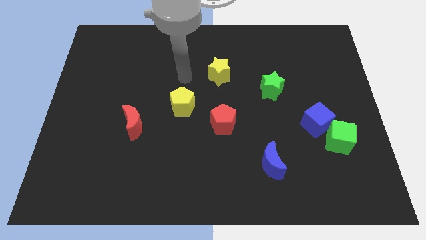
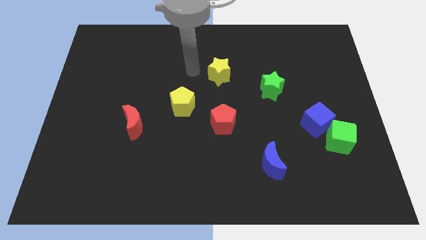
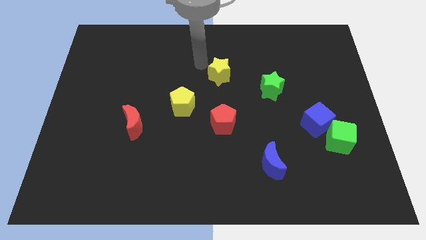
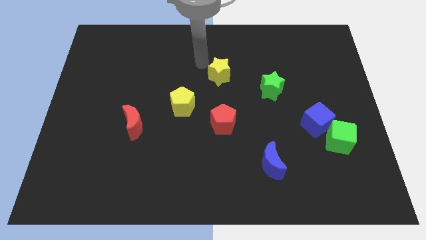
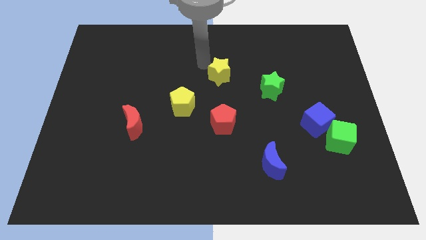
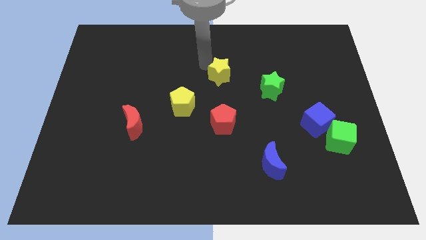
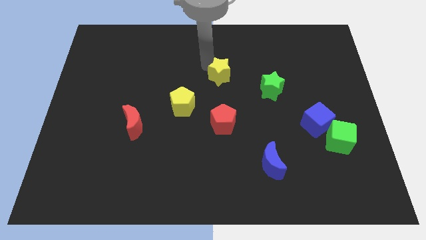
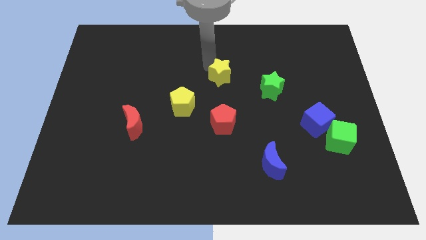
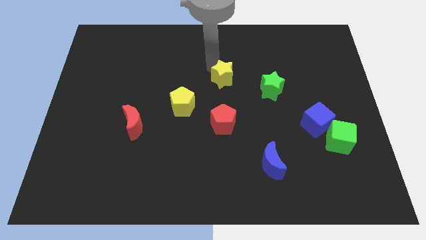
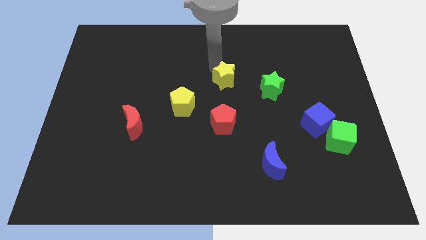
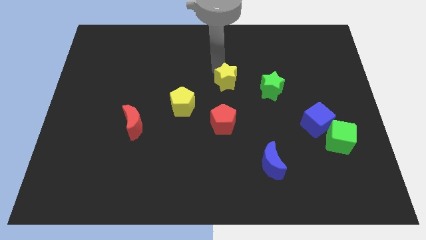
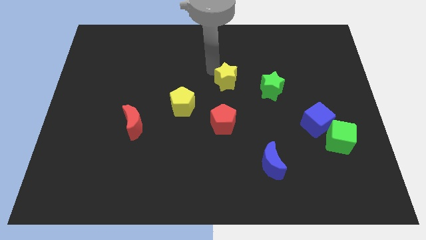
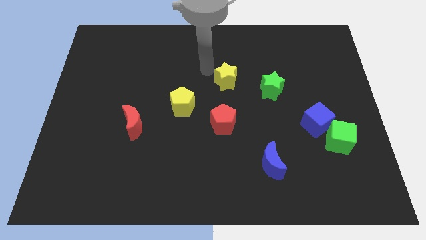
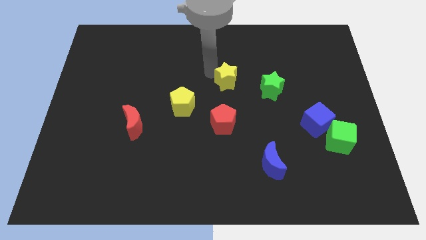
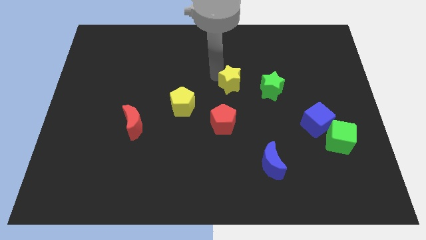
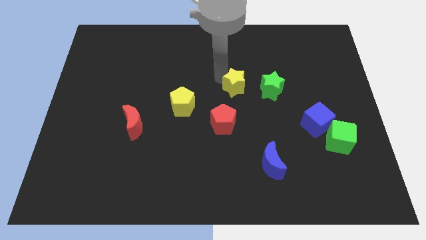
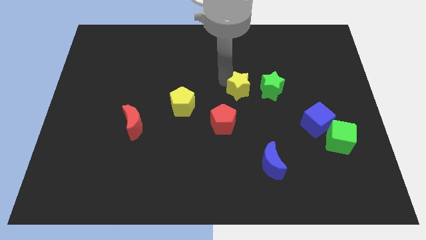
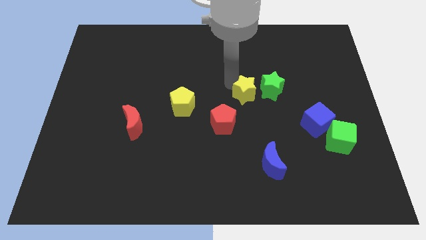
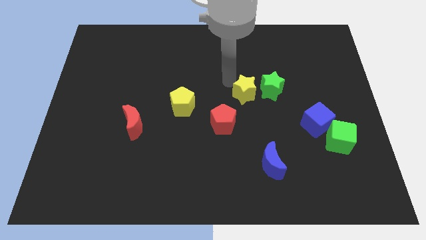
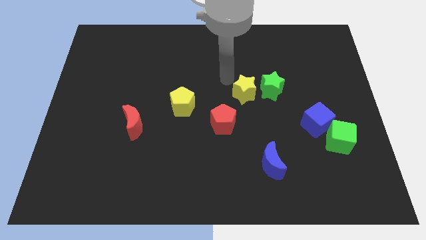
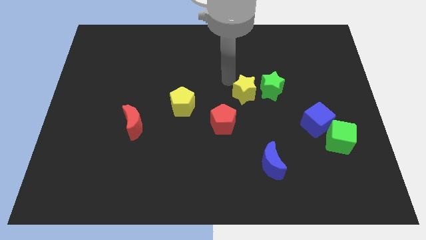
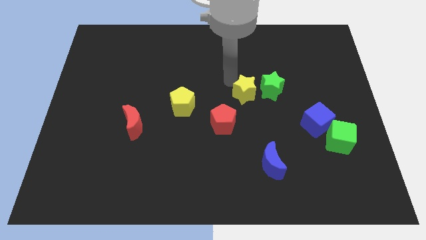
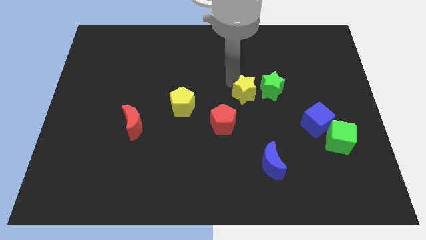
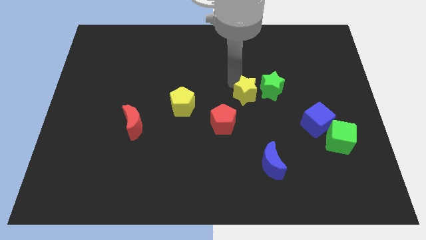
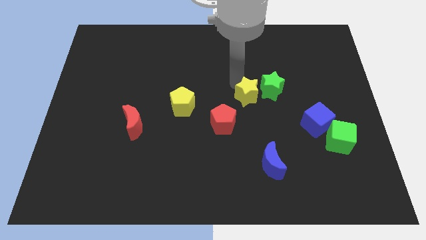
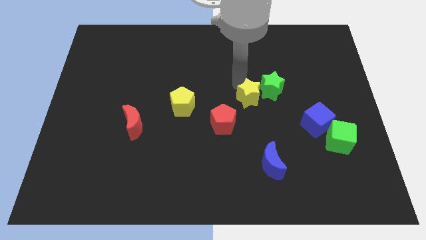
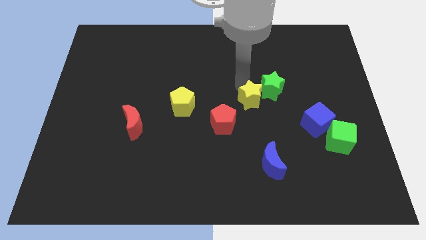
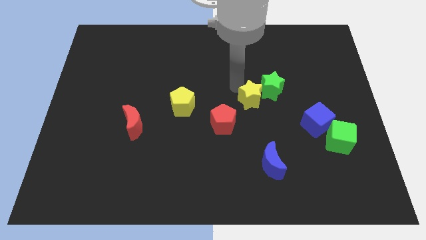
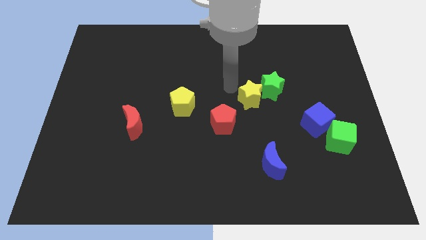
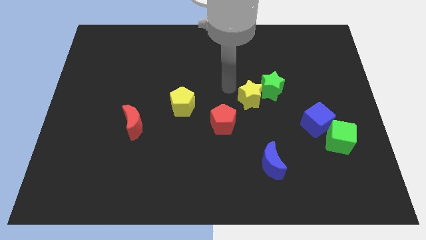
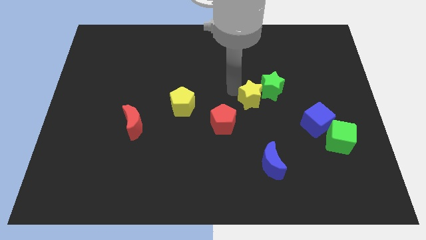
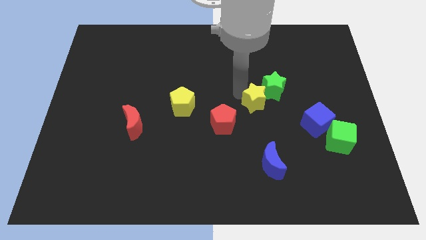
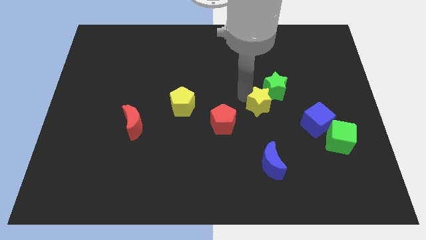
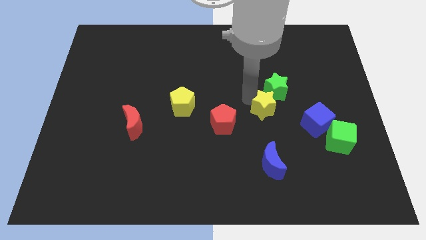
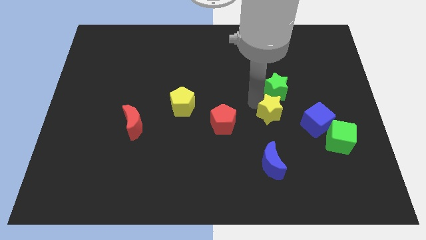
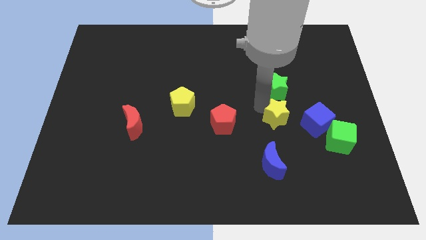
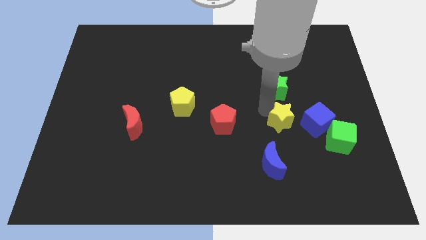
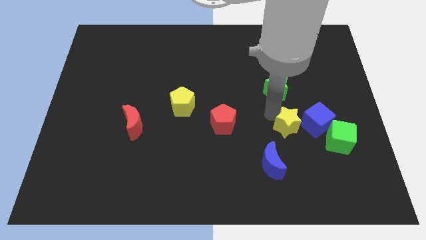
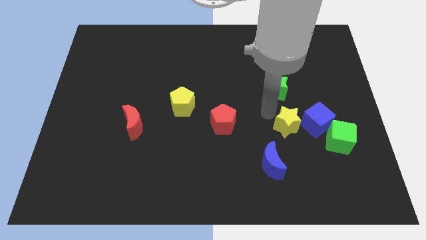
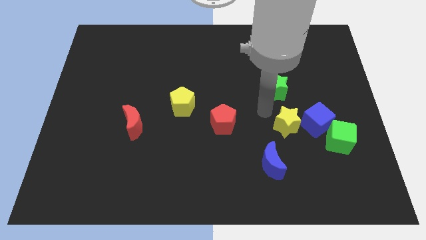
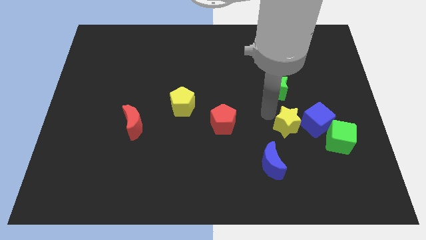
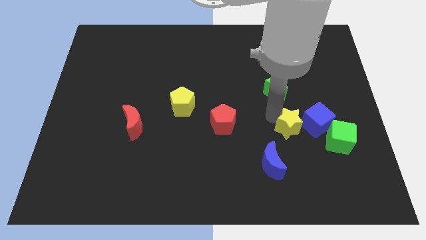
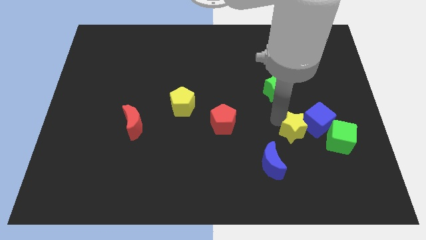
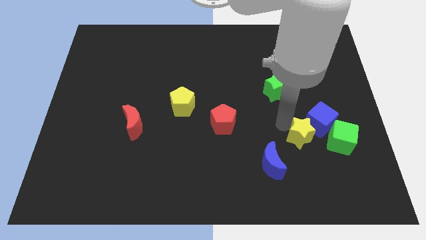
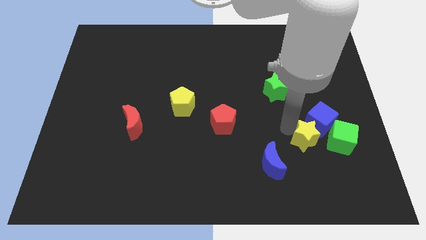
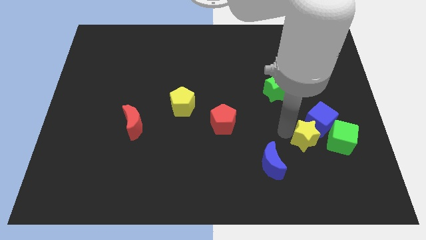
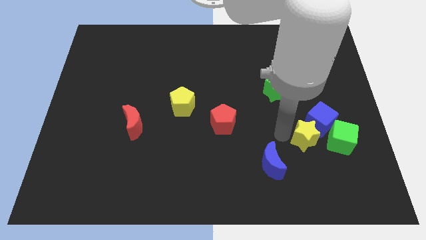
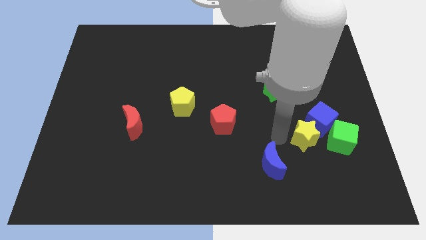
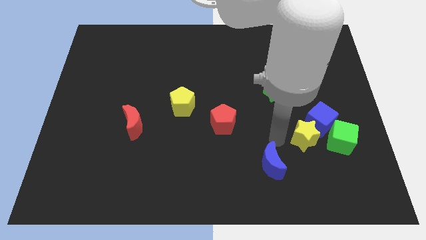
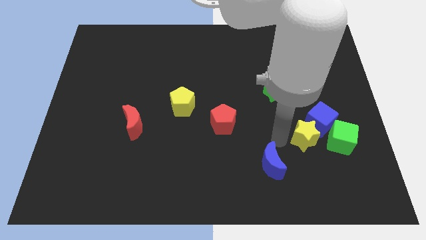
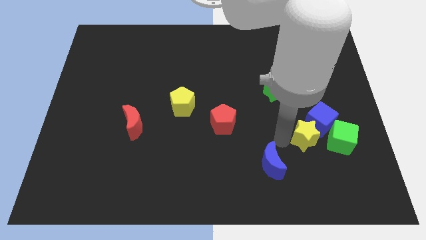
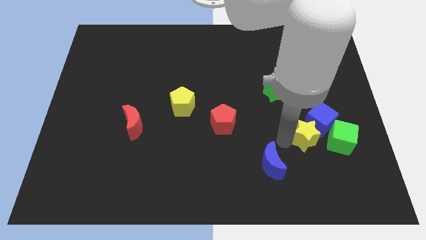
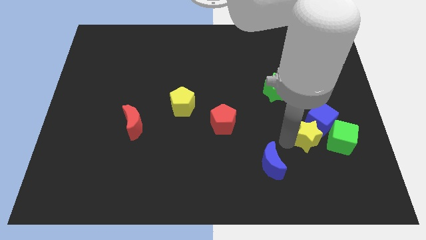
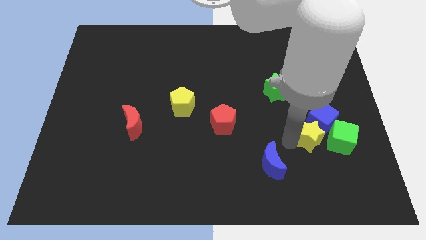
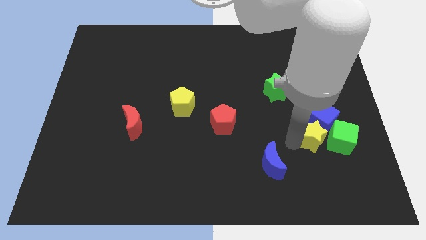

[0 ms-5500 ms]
push the yellow star close to the green cube

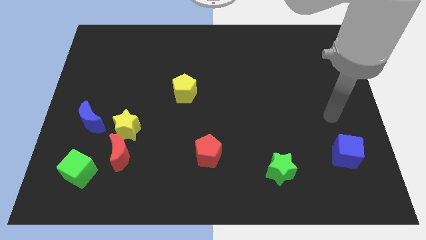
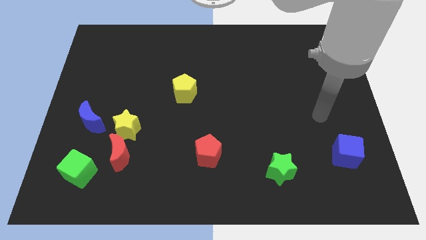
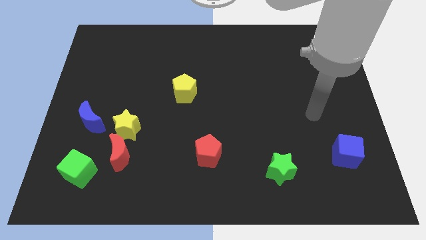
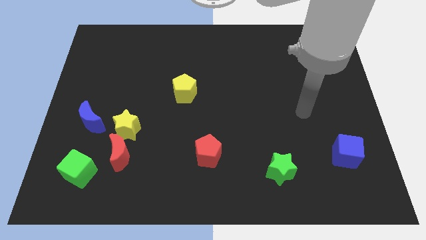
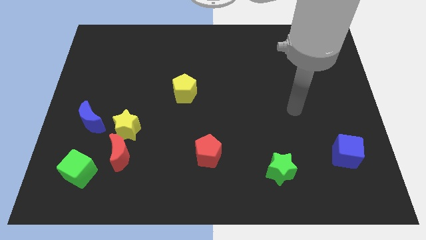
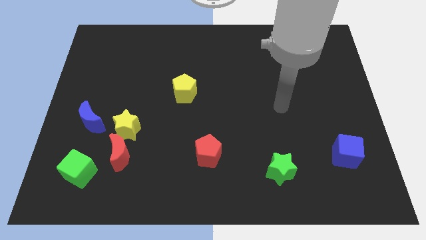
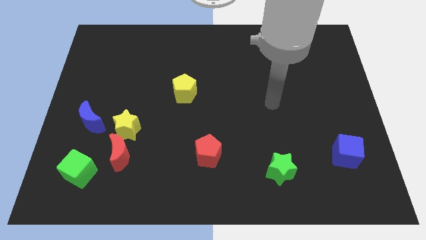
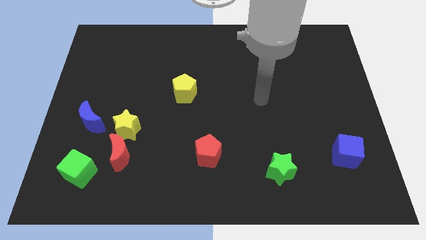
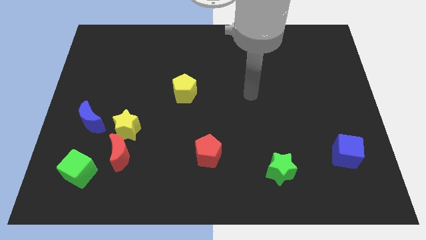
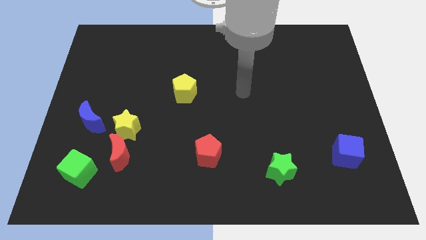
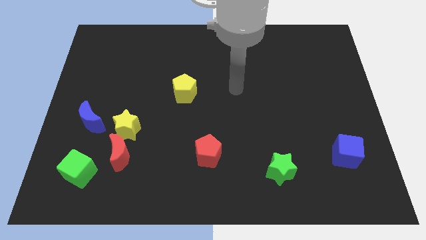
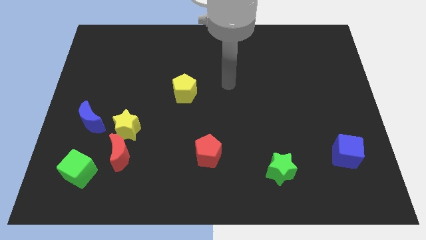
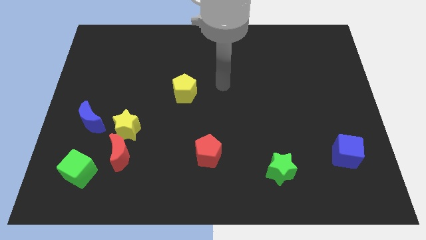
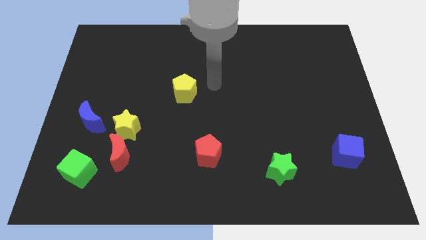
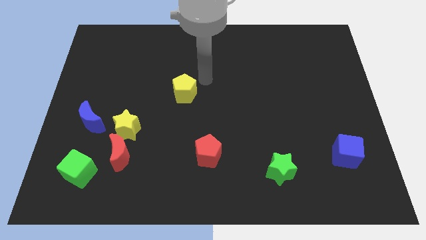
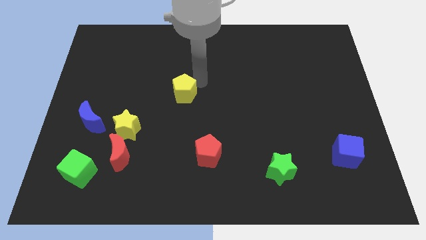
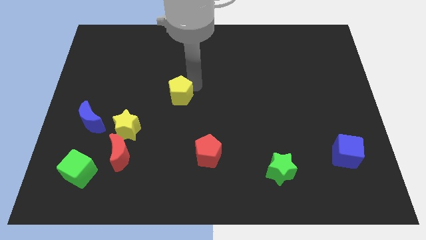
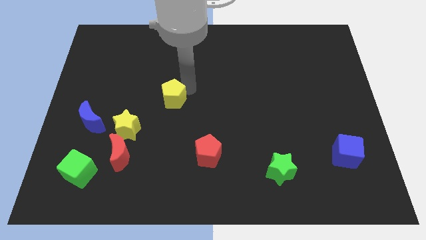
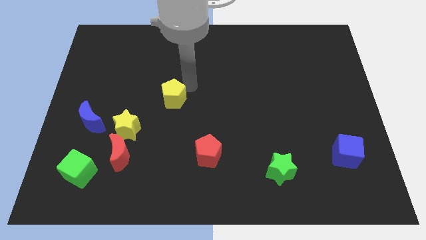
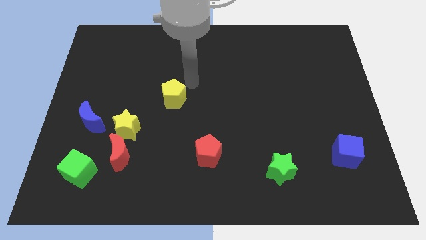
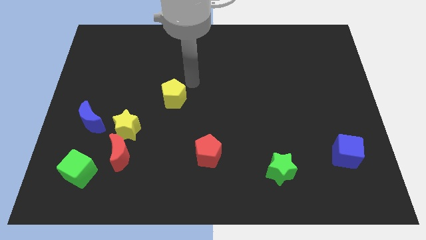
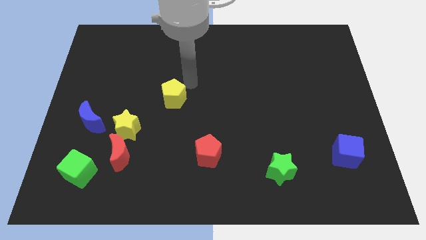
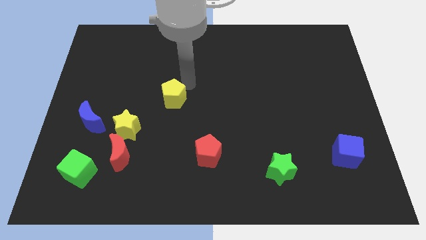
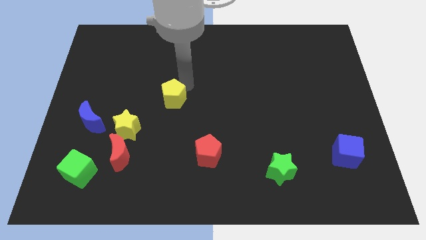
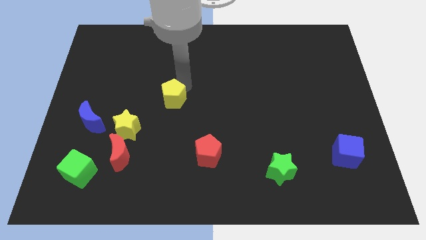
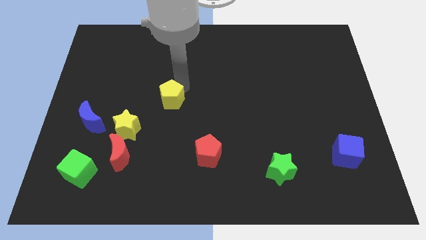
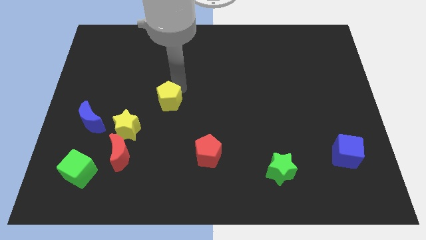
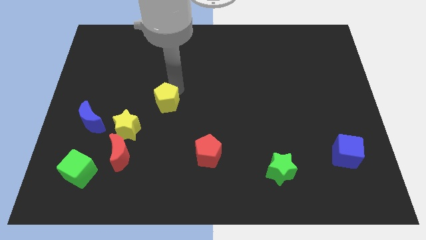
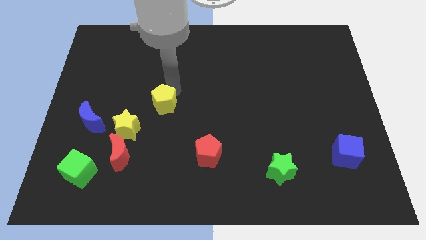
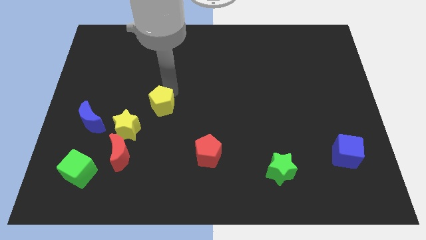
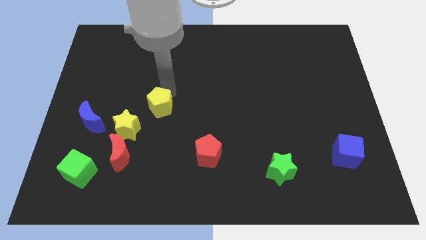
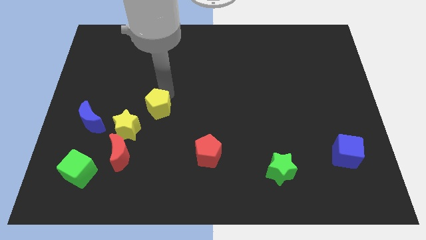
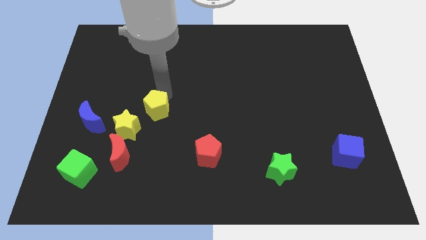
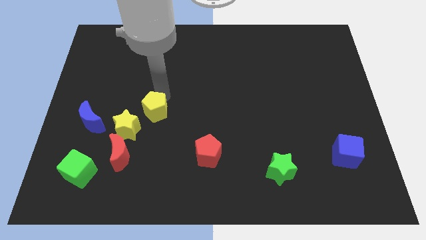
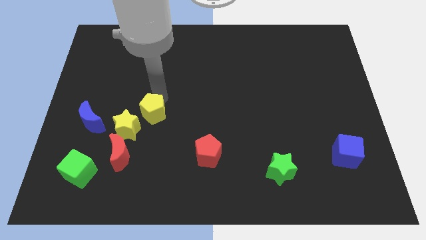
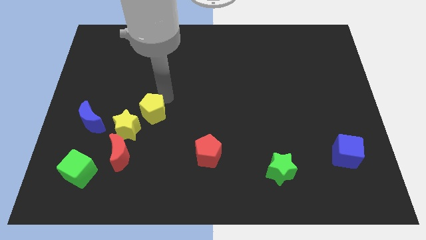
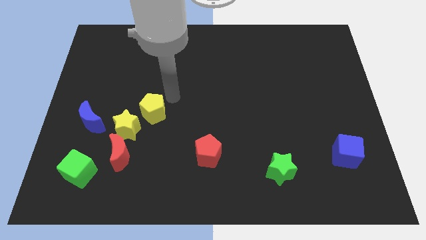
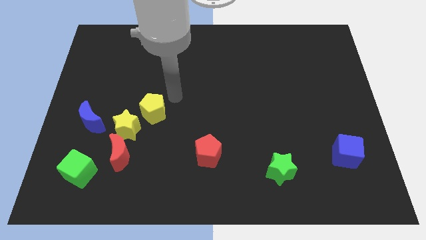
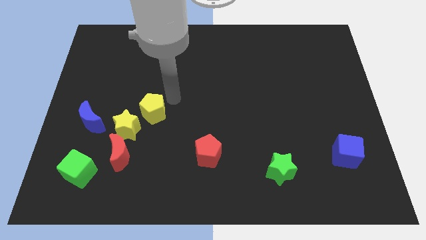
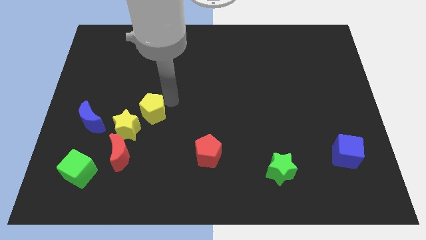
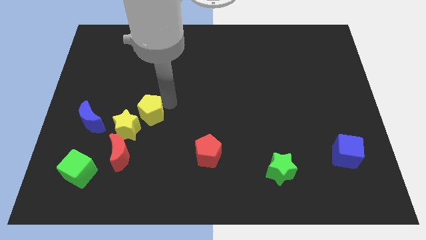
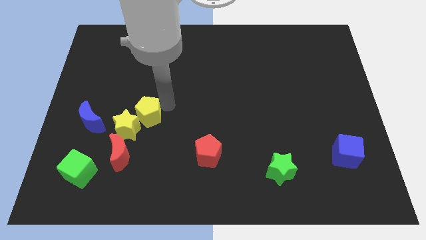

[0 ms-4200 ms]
move the yellow pentagon close to the yellow star
